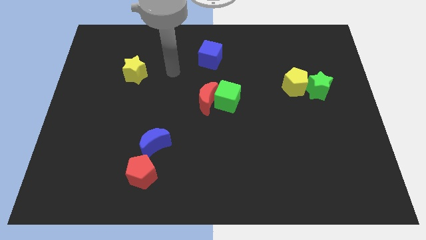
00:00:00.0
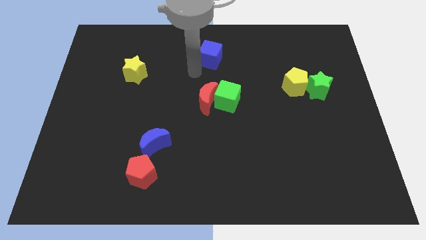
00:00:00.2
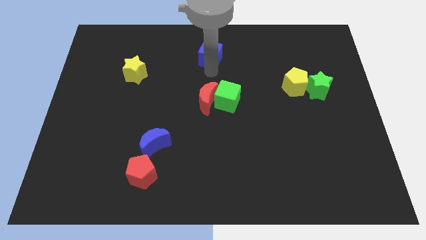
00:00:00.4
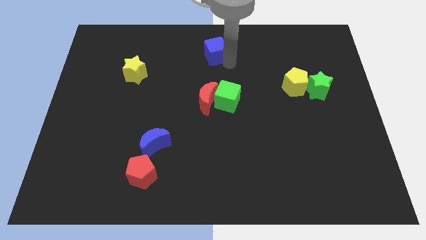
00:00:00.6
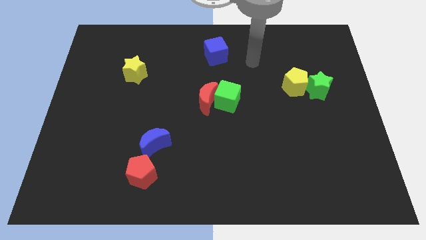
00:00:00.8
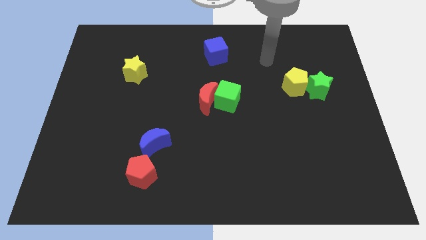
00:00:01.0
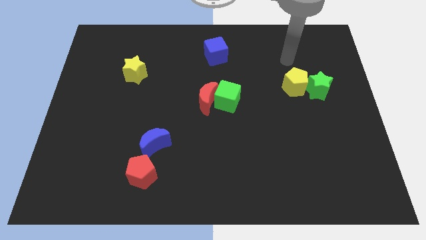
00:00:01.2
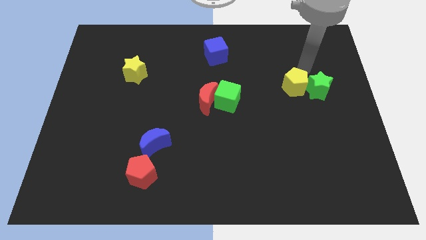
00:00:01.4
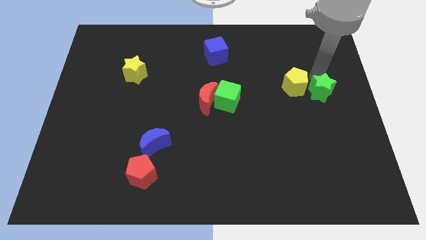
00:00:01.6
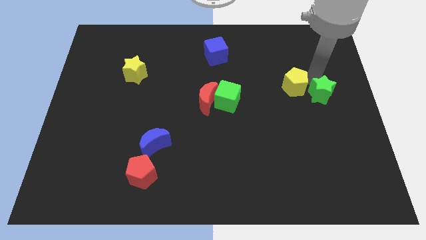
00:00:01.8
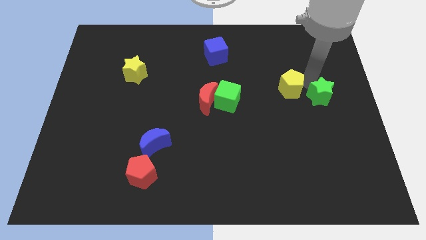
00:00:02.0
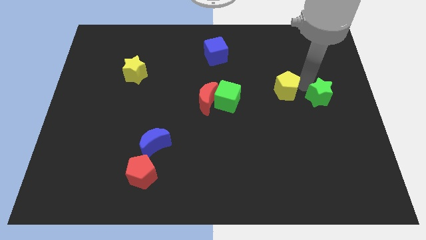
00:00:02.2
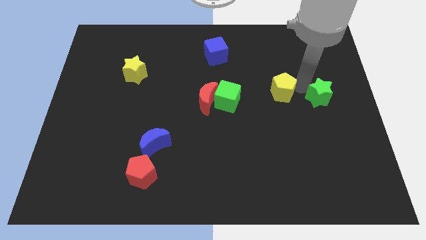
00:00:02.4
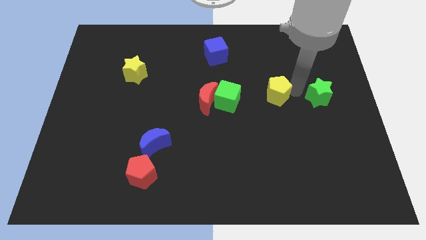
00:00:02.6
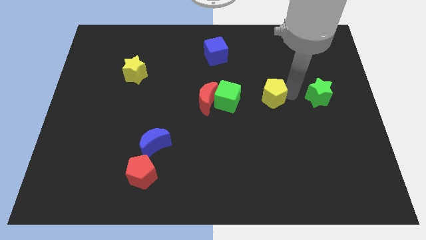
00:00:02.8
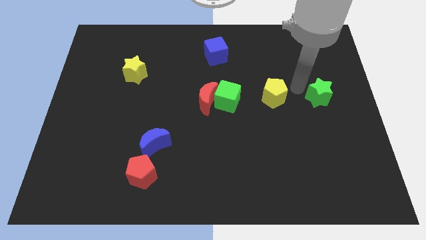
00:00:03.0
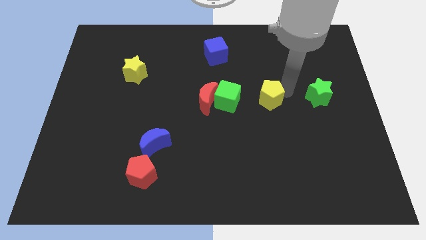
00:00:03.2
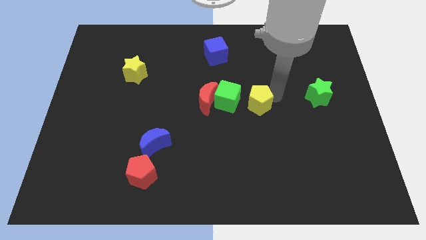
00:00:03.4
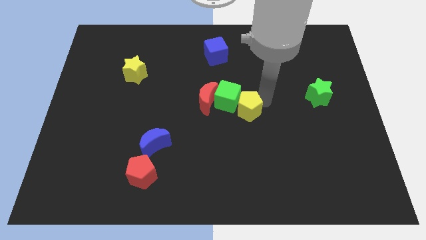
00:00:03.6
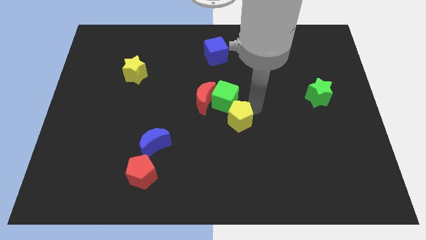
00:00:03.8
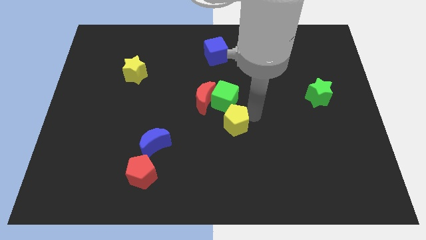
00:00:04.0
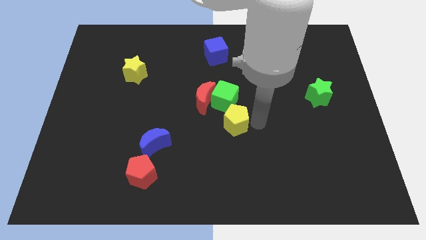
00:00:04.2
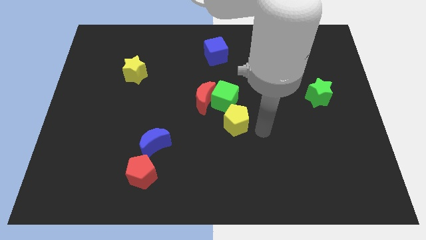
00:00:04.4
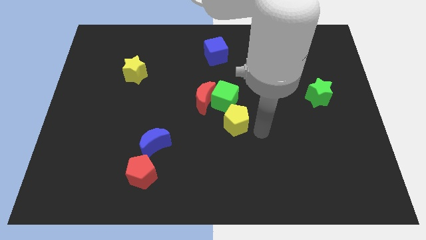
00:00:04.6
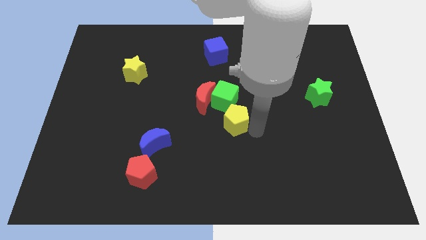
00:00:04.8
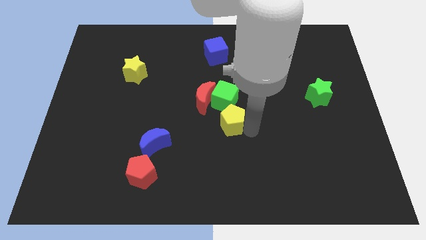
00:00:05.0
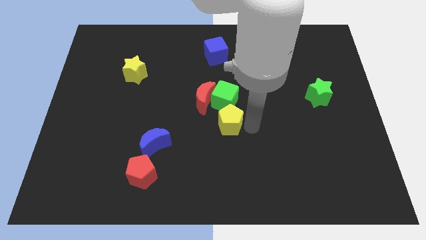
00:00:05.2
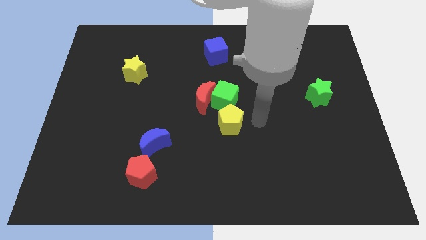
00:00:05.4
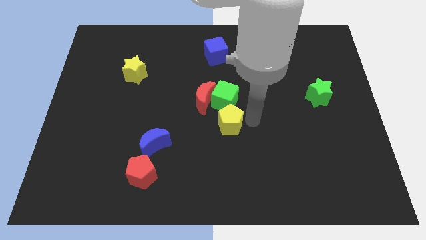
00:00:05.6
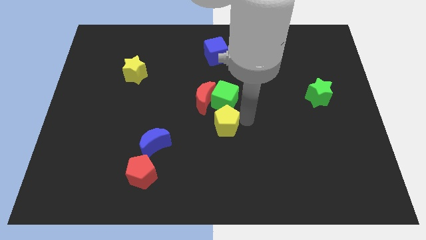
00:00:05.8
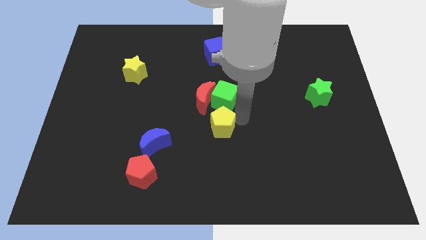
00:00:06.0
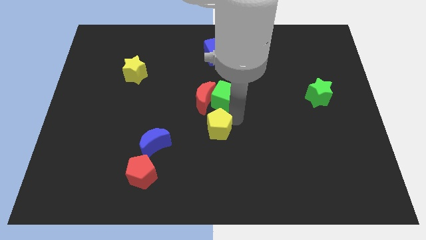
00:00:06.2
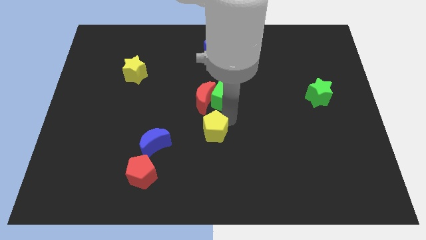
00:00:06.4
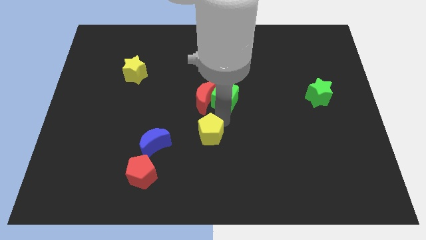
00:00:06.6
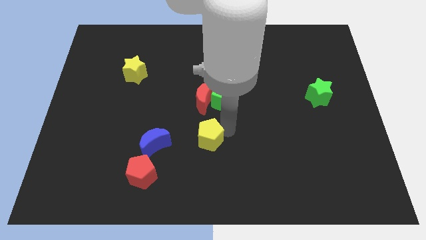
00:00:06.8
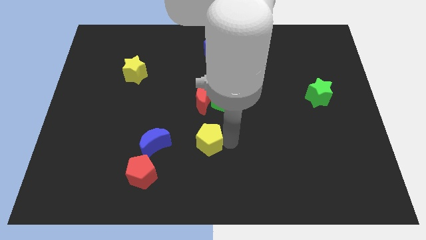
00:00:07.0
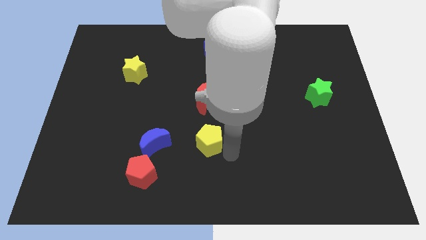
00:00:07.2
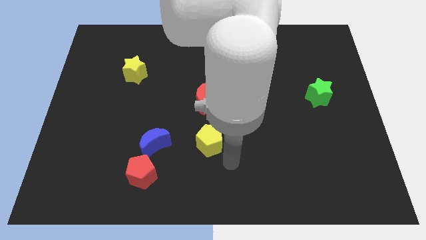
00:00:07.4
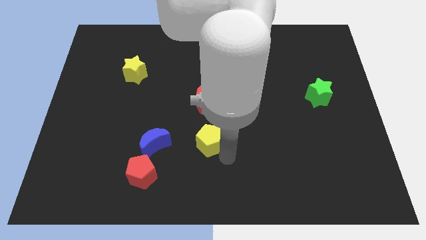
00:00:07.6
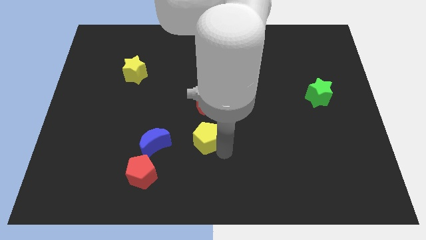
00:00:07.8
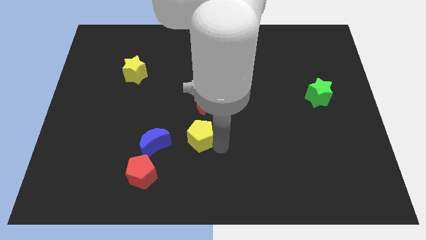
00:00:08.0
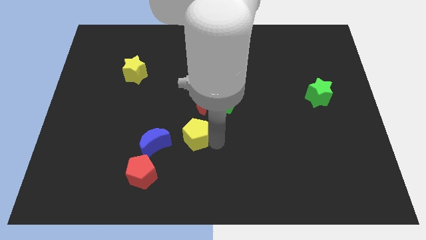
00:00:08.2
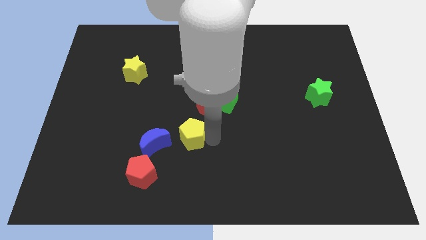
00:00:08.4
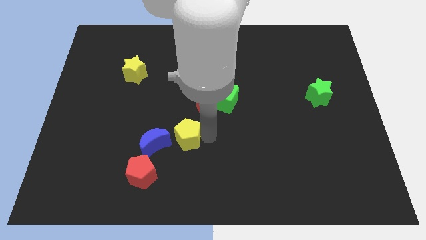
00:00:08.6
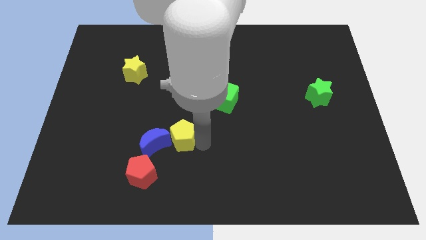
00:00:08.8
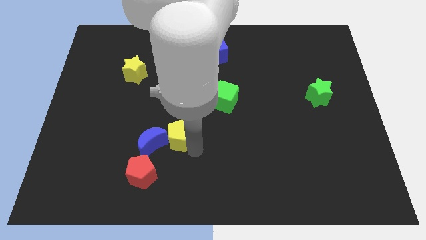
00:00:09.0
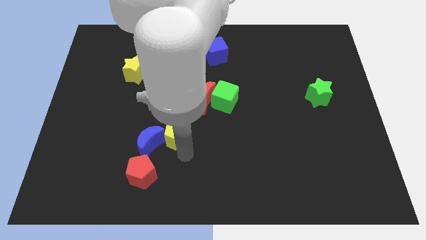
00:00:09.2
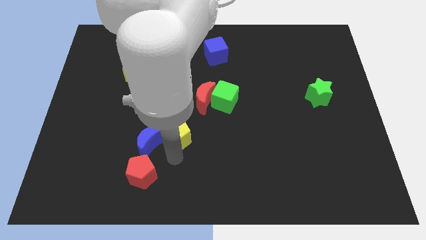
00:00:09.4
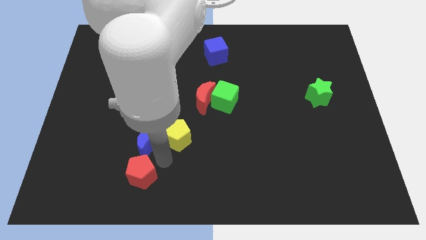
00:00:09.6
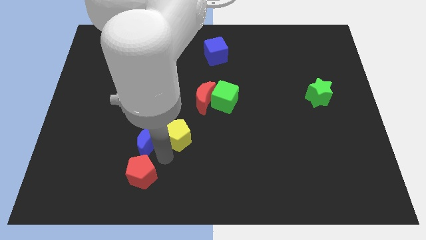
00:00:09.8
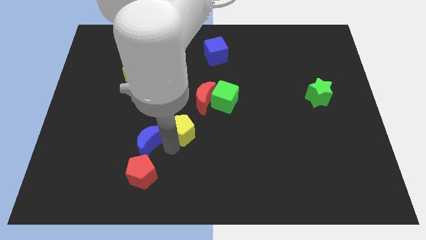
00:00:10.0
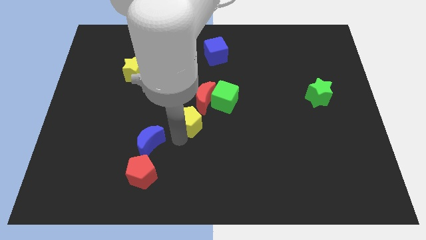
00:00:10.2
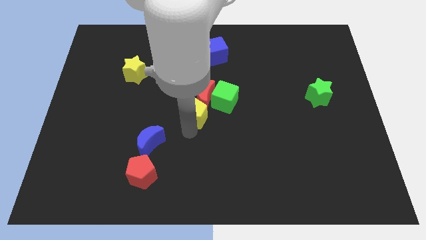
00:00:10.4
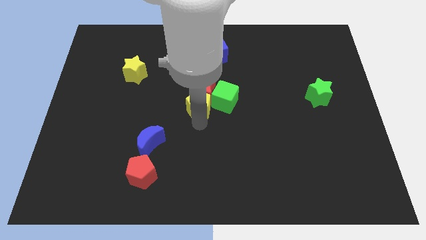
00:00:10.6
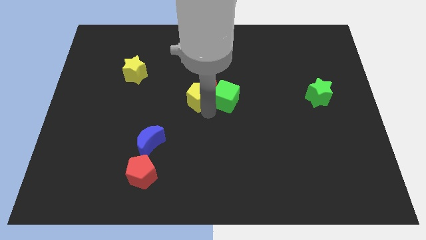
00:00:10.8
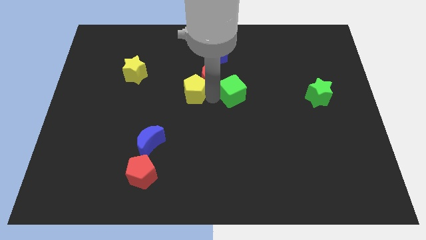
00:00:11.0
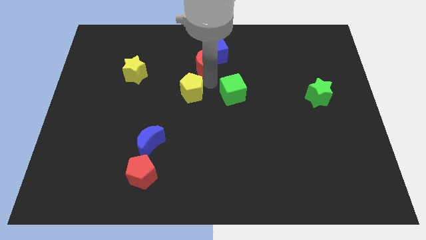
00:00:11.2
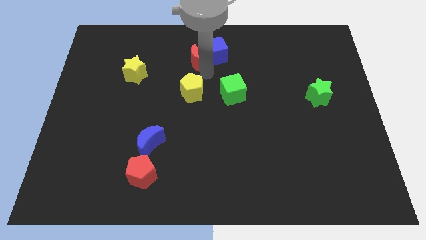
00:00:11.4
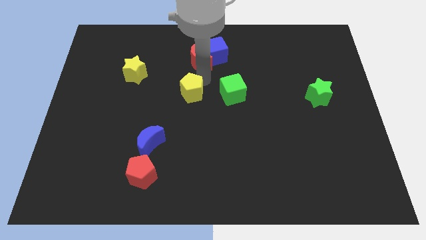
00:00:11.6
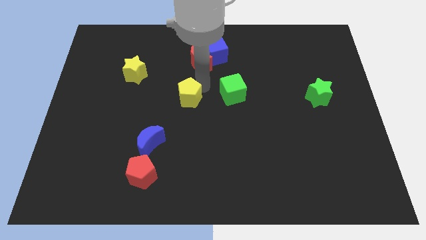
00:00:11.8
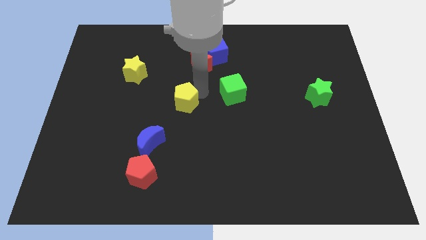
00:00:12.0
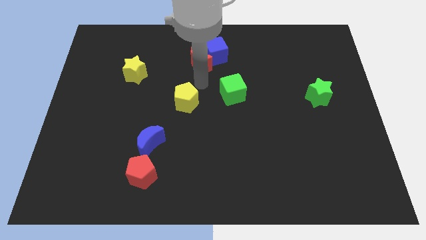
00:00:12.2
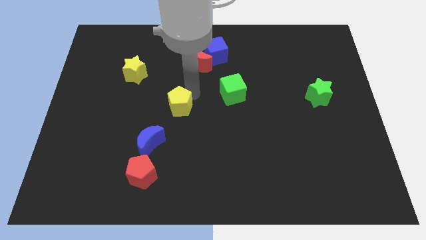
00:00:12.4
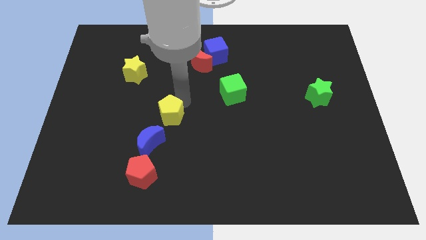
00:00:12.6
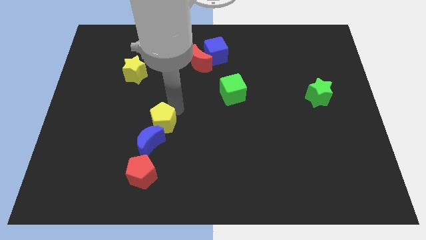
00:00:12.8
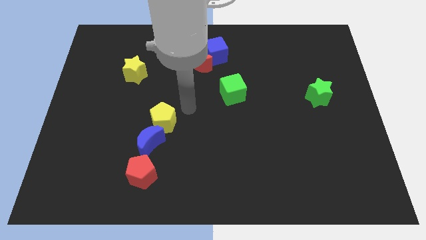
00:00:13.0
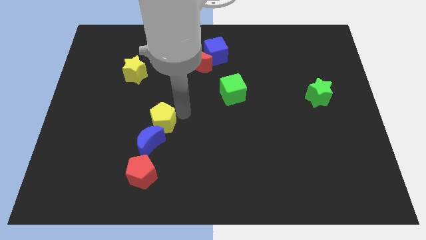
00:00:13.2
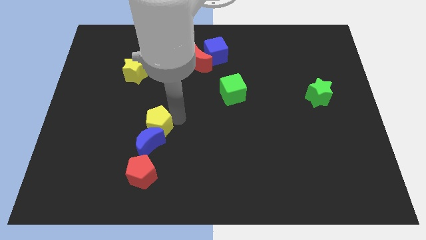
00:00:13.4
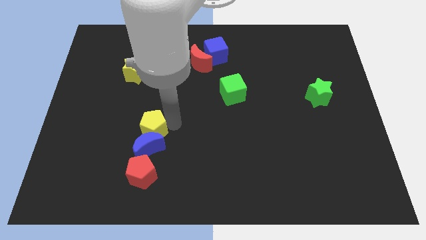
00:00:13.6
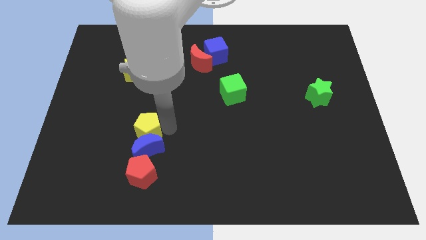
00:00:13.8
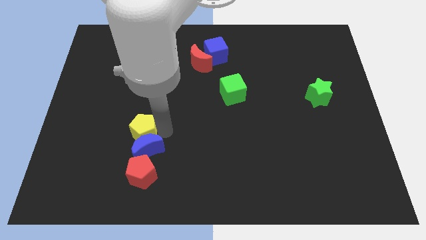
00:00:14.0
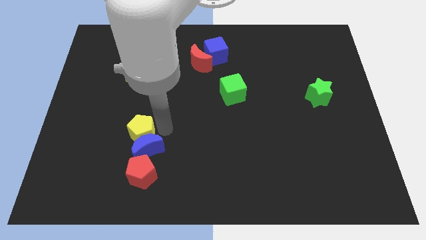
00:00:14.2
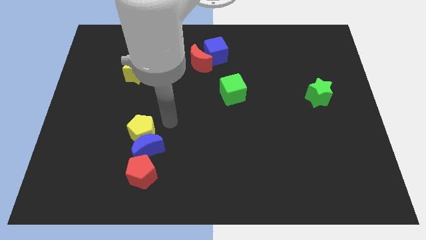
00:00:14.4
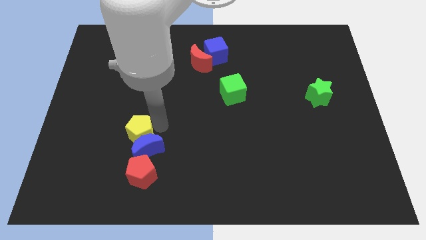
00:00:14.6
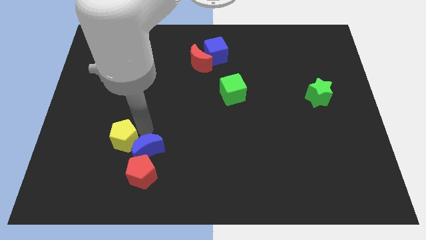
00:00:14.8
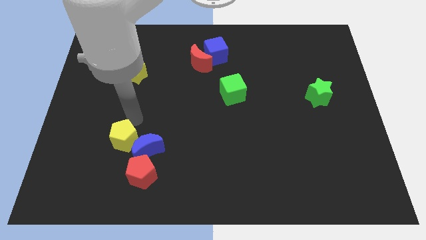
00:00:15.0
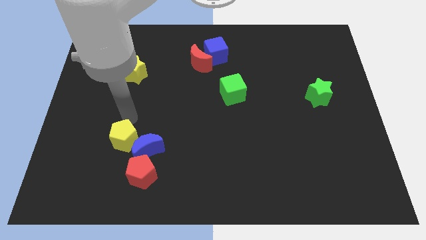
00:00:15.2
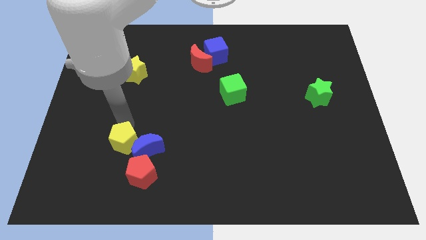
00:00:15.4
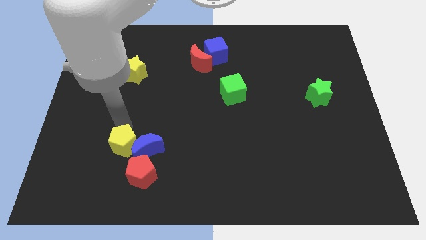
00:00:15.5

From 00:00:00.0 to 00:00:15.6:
put the yellow pentagon to the bottom left side of the blue moon

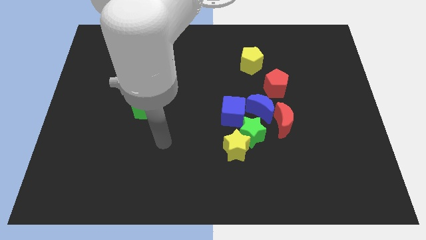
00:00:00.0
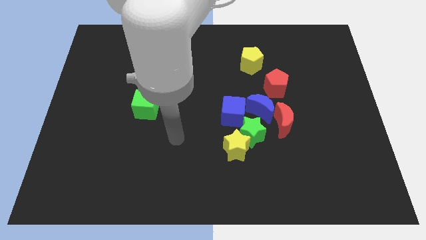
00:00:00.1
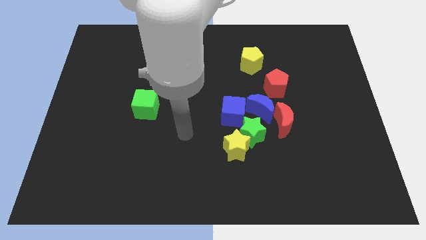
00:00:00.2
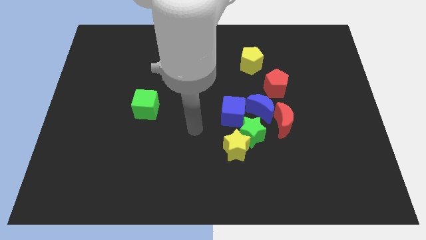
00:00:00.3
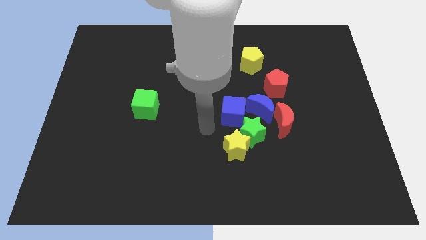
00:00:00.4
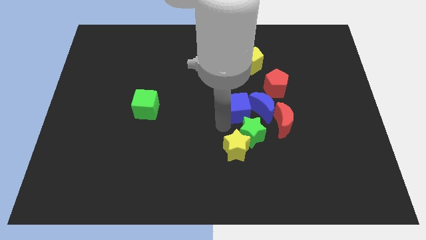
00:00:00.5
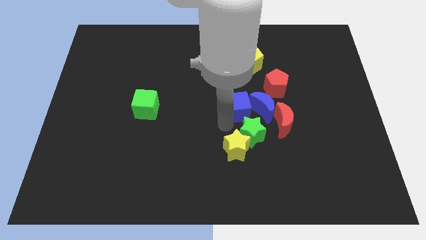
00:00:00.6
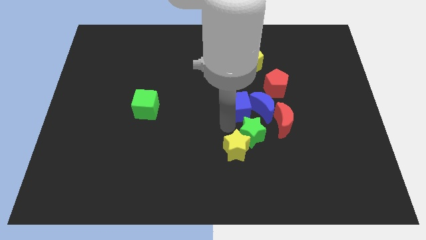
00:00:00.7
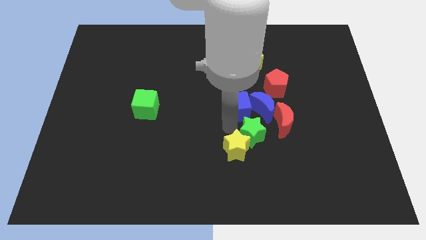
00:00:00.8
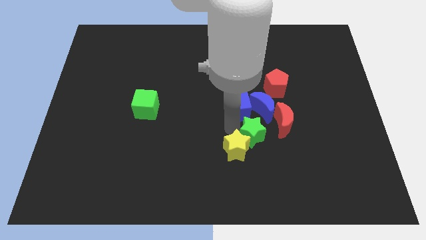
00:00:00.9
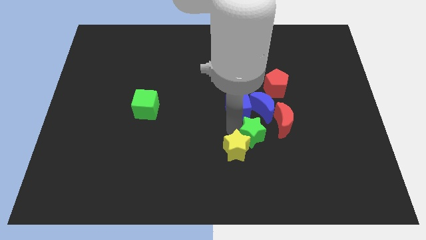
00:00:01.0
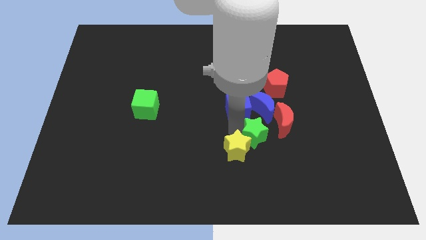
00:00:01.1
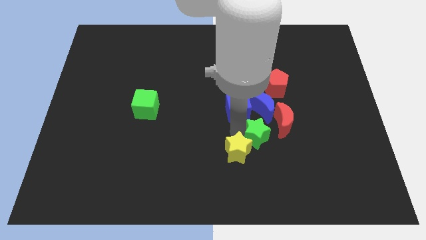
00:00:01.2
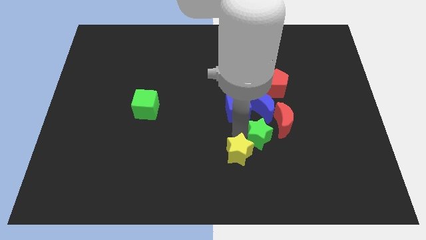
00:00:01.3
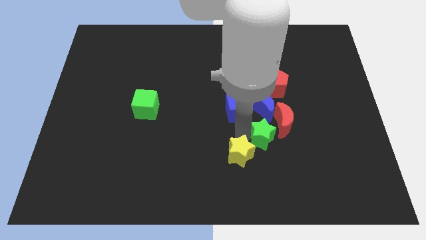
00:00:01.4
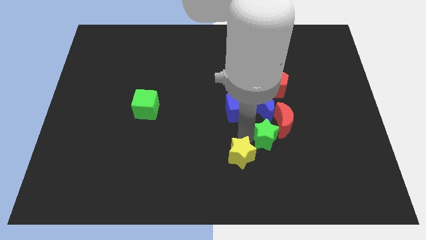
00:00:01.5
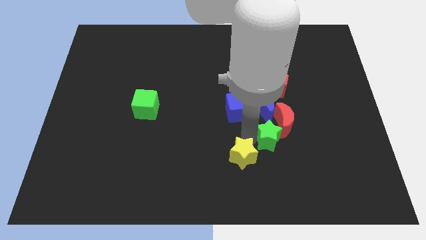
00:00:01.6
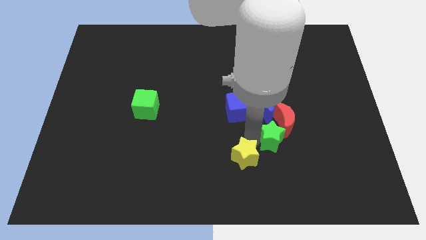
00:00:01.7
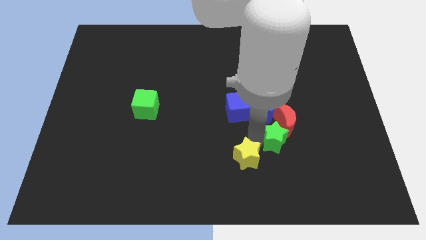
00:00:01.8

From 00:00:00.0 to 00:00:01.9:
push the green star to the bottom right of the blue moon
